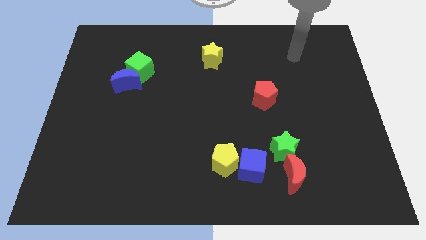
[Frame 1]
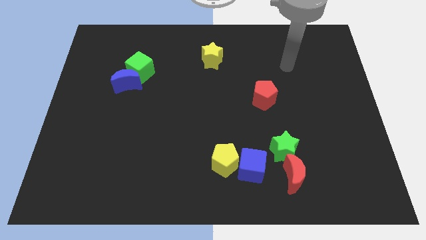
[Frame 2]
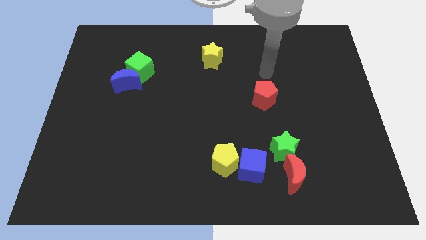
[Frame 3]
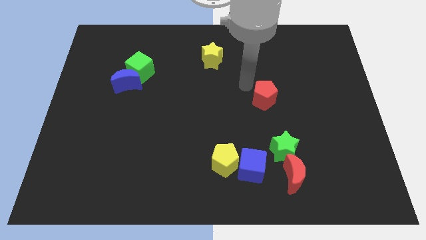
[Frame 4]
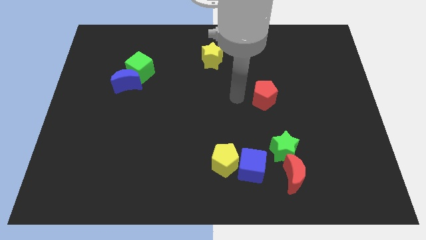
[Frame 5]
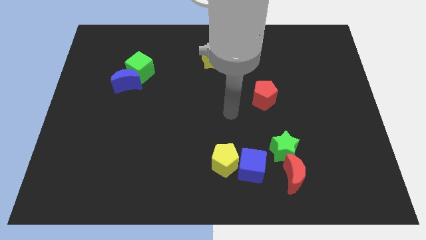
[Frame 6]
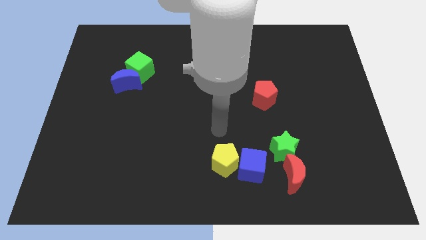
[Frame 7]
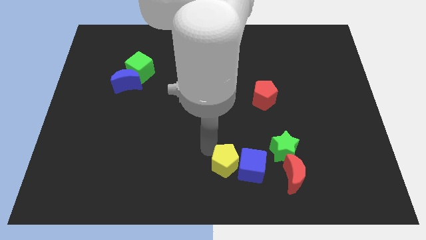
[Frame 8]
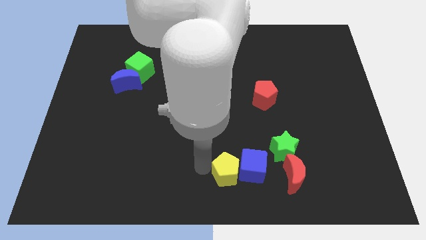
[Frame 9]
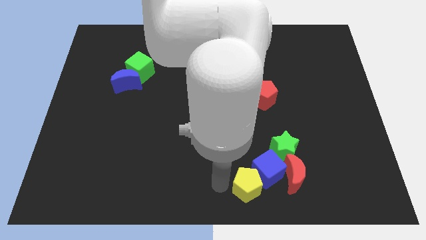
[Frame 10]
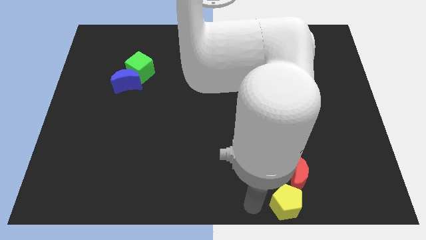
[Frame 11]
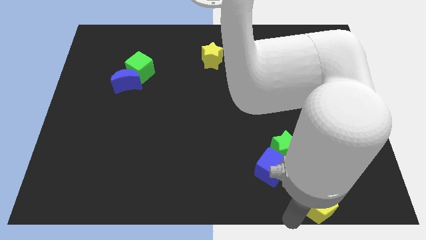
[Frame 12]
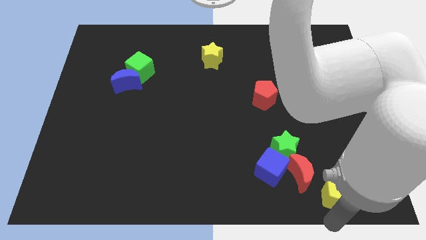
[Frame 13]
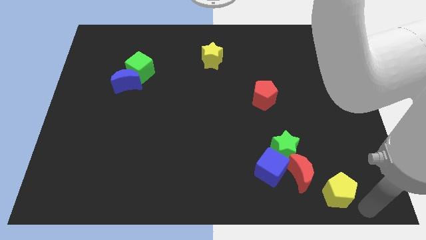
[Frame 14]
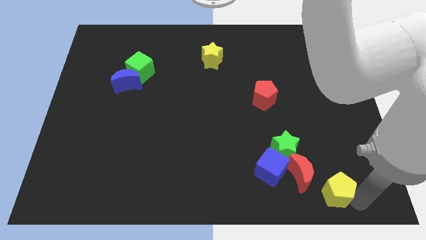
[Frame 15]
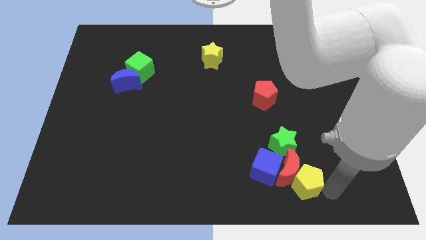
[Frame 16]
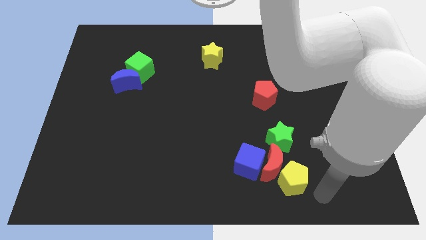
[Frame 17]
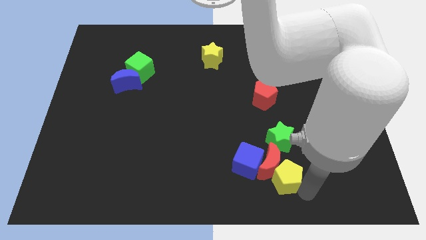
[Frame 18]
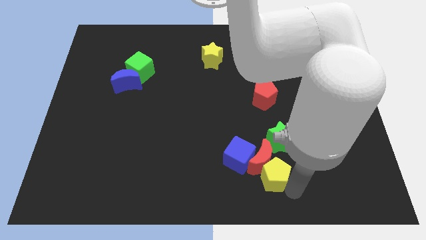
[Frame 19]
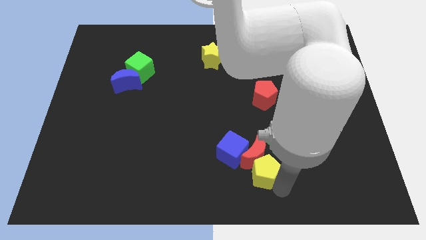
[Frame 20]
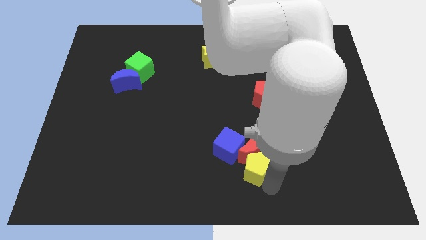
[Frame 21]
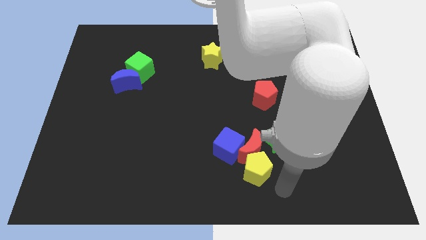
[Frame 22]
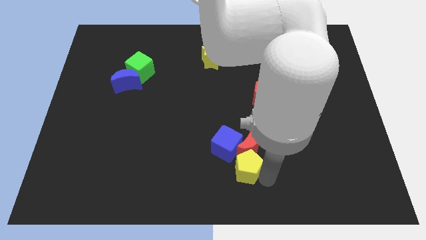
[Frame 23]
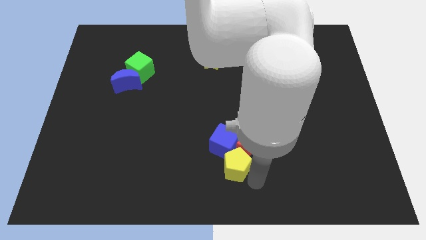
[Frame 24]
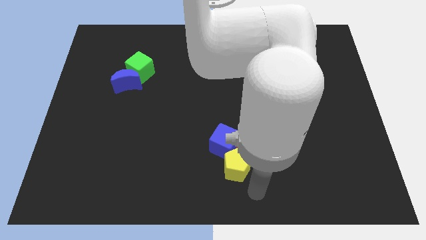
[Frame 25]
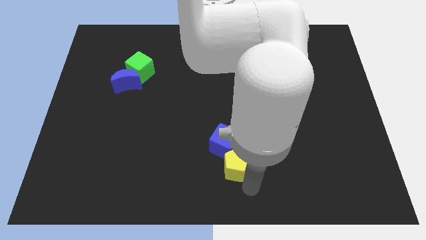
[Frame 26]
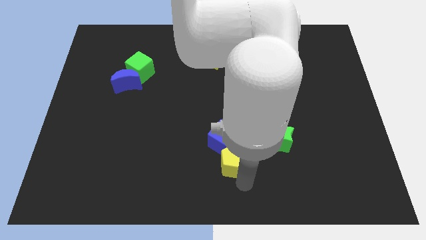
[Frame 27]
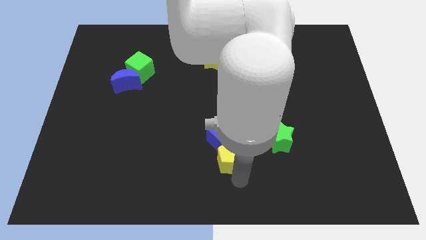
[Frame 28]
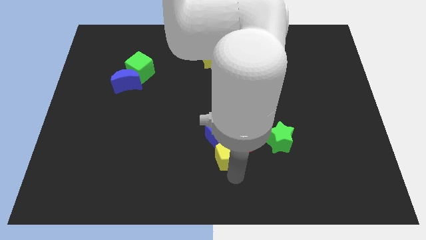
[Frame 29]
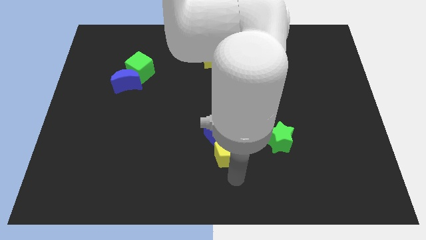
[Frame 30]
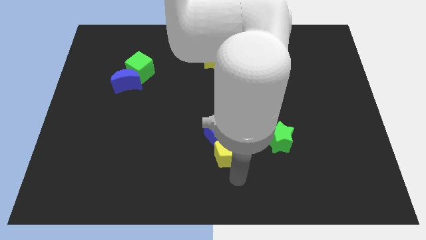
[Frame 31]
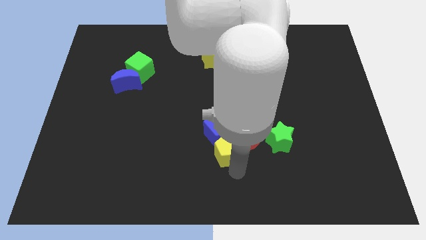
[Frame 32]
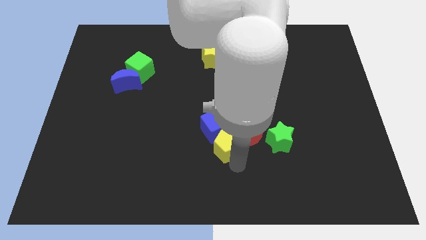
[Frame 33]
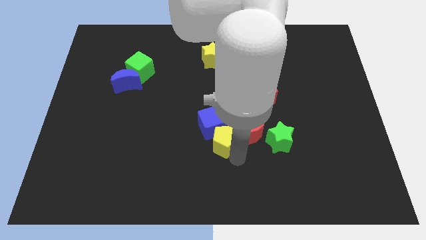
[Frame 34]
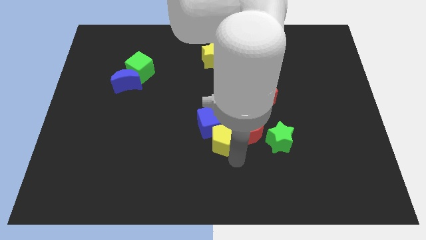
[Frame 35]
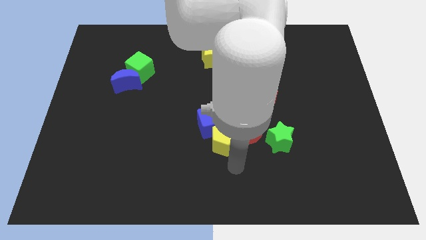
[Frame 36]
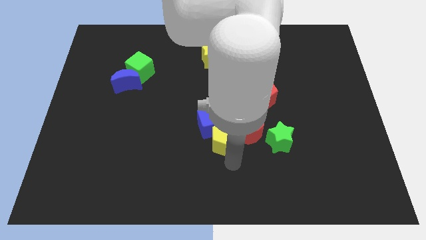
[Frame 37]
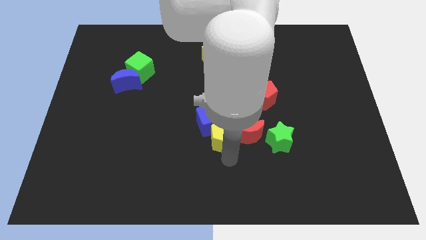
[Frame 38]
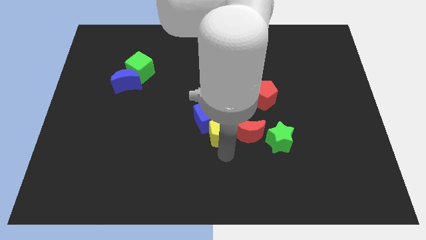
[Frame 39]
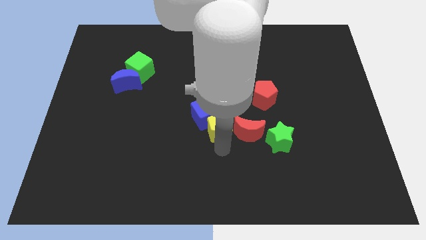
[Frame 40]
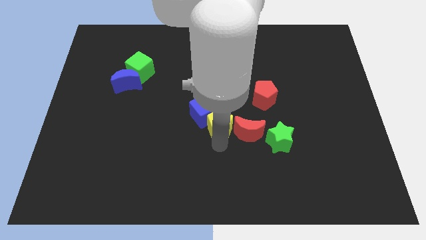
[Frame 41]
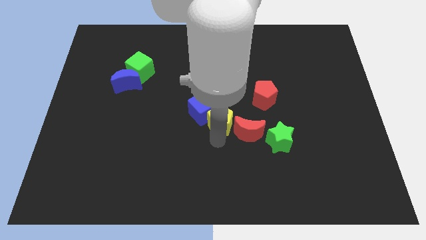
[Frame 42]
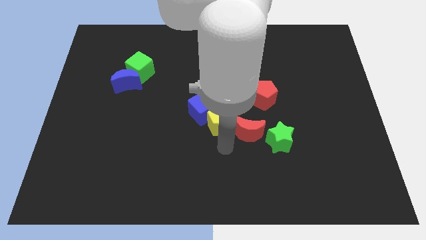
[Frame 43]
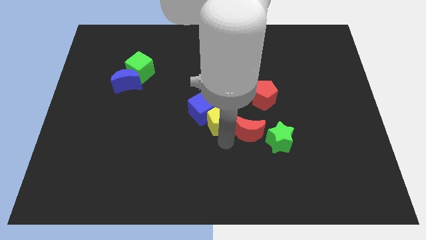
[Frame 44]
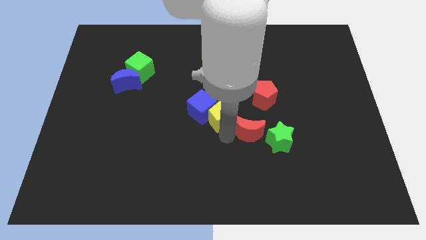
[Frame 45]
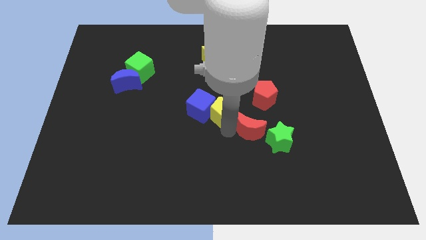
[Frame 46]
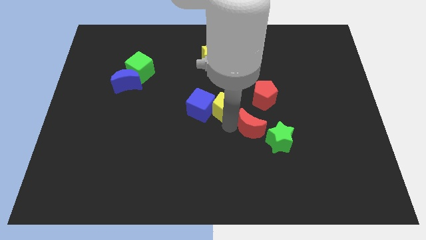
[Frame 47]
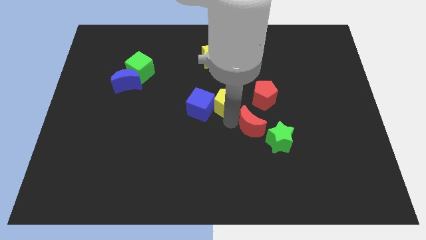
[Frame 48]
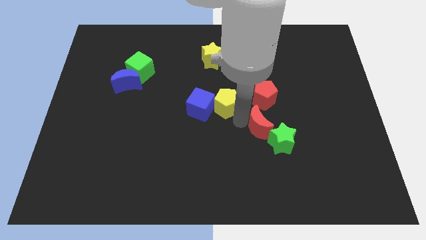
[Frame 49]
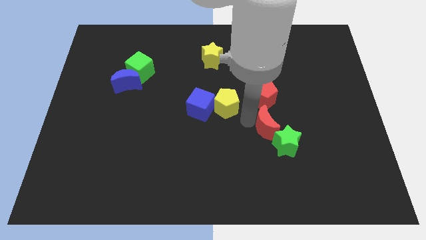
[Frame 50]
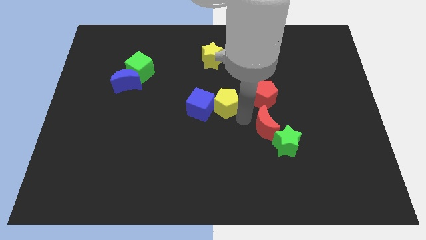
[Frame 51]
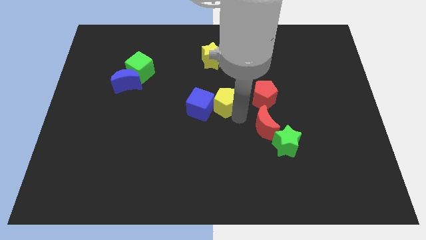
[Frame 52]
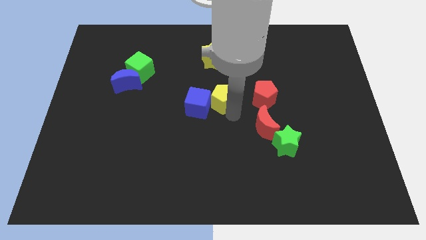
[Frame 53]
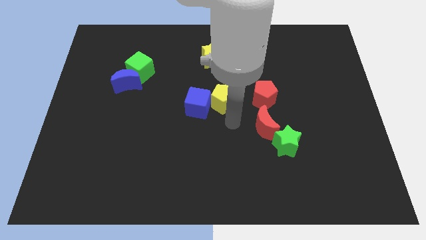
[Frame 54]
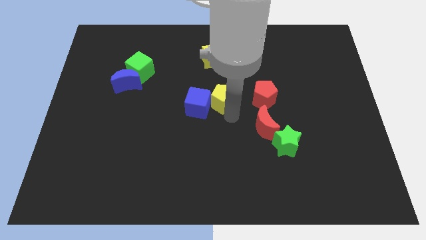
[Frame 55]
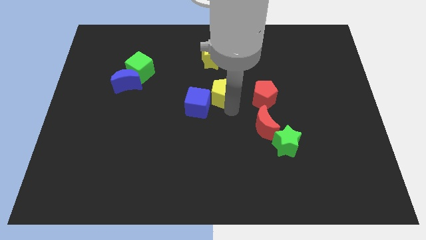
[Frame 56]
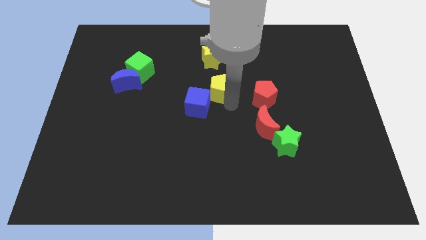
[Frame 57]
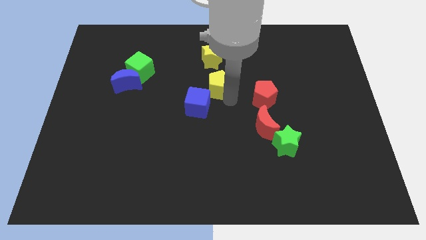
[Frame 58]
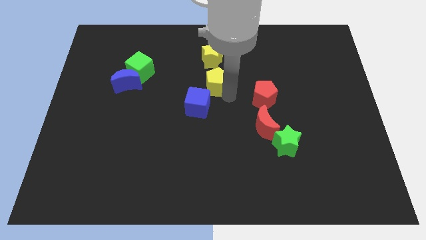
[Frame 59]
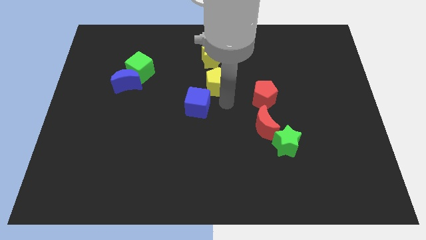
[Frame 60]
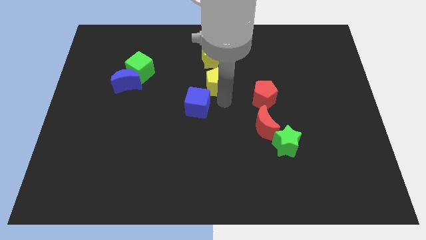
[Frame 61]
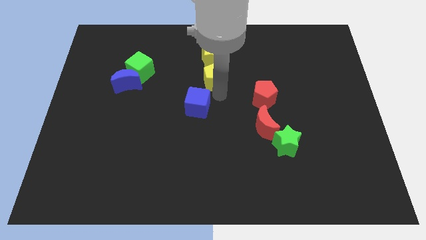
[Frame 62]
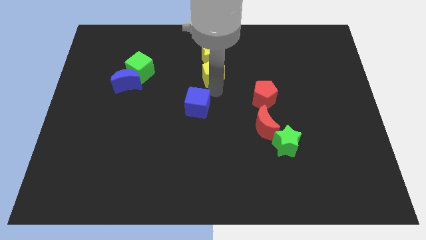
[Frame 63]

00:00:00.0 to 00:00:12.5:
push the yellow pentagon towards the yellow star
